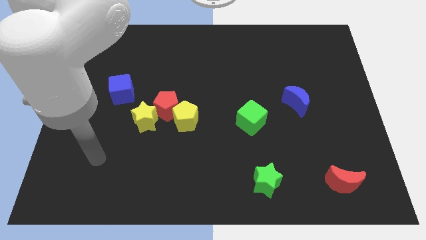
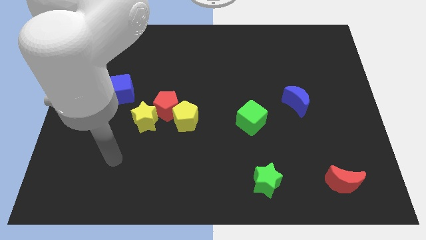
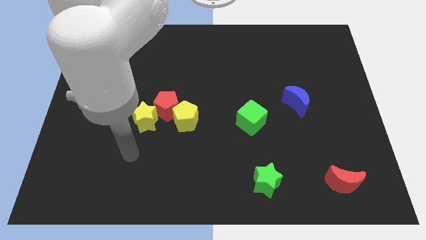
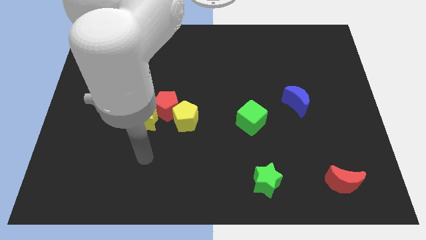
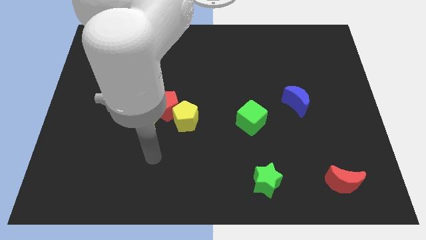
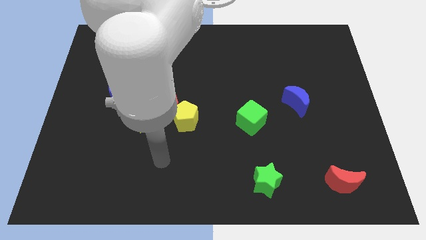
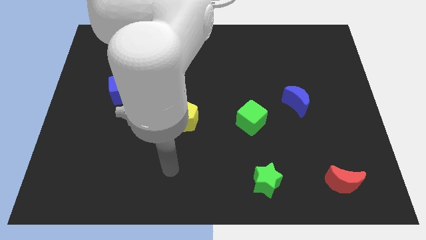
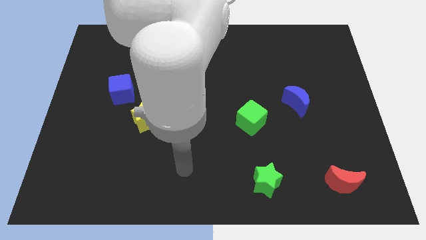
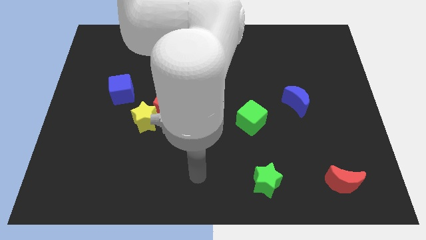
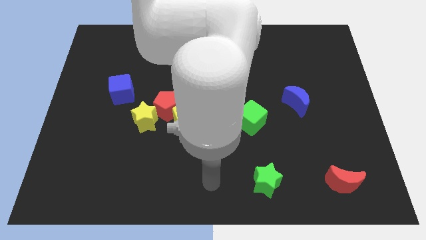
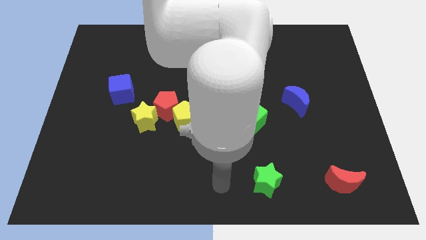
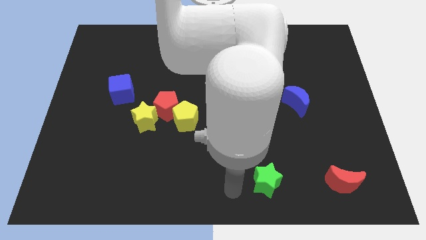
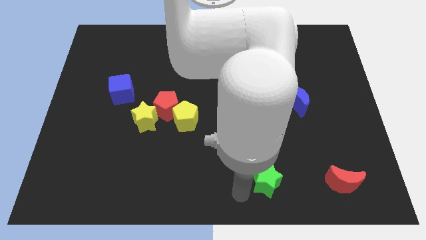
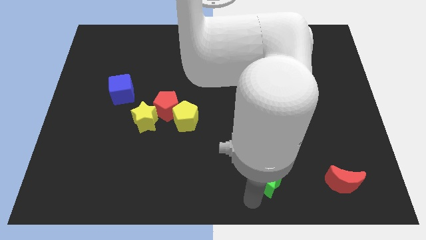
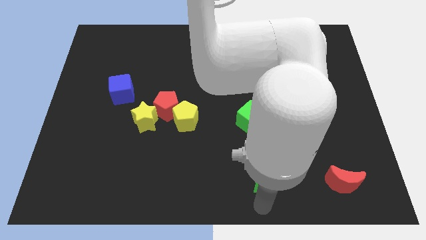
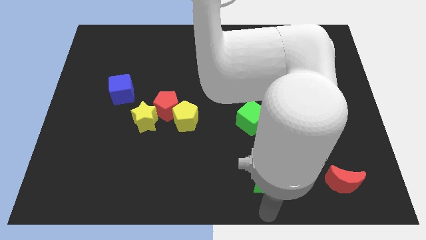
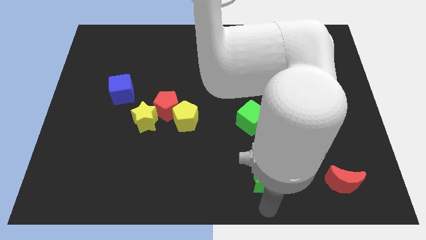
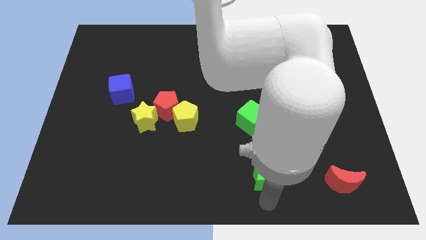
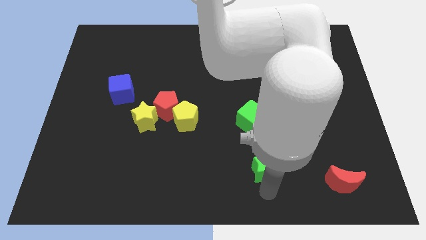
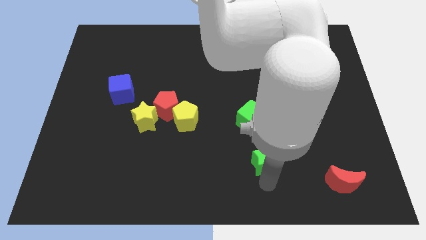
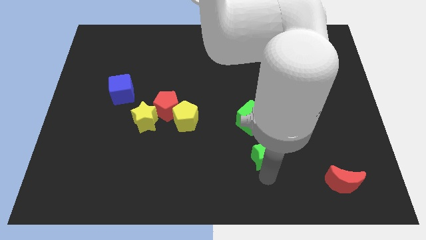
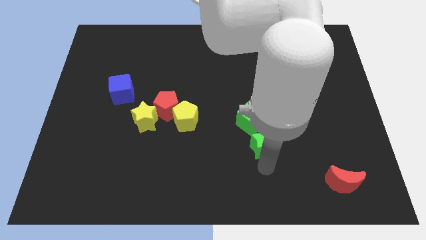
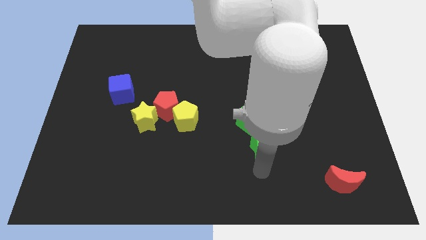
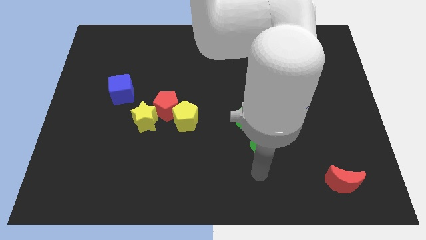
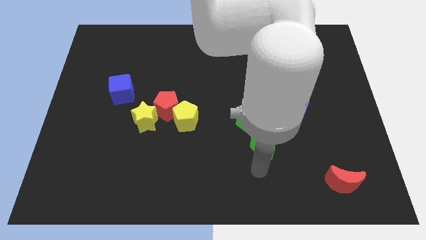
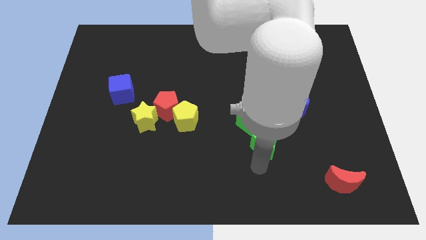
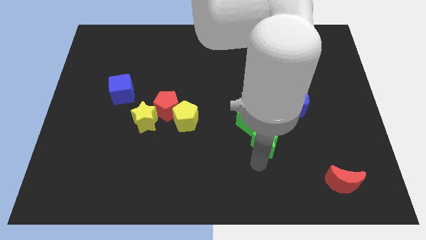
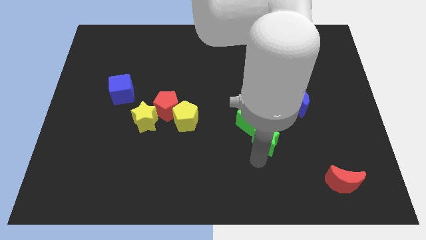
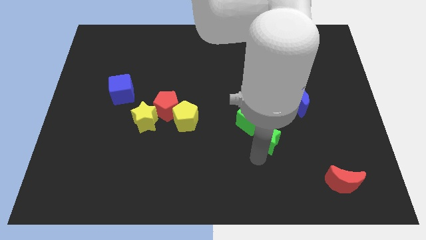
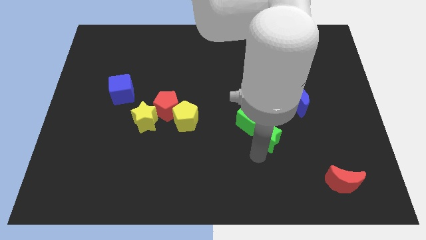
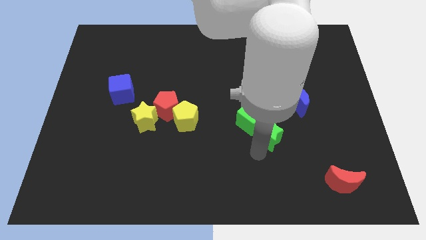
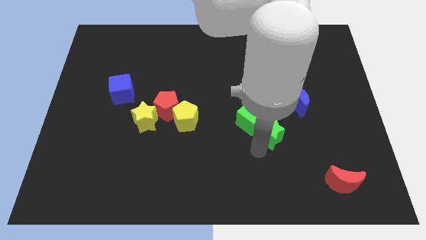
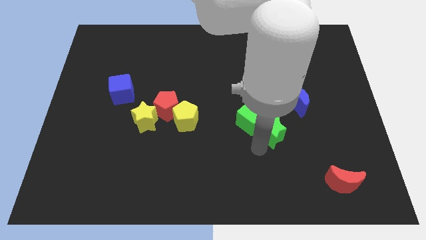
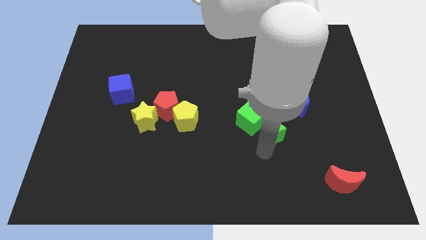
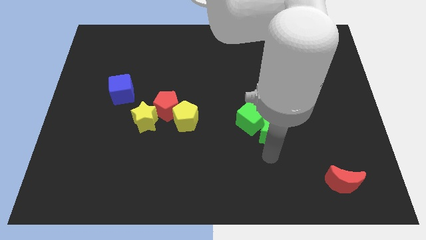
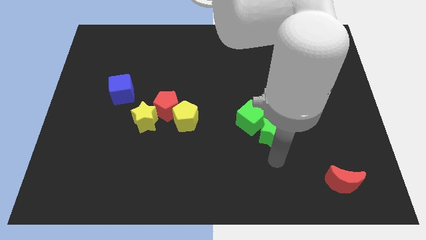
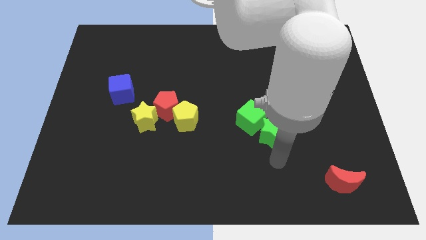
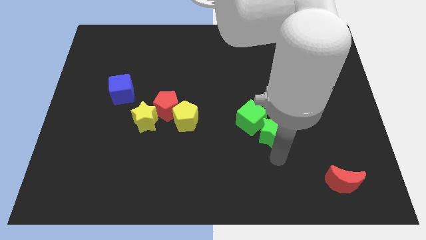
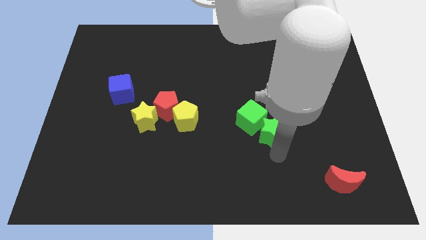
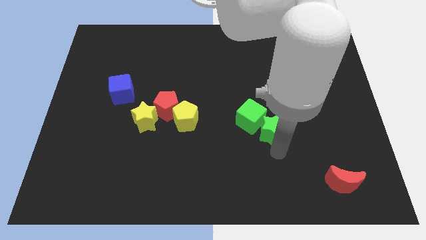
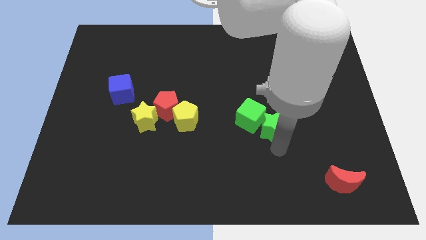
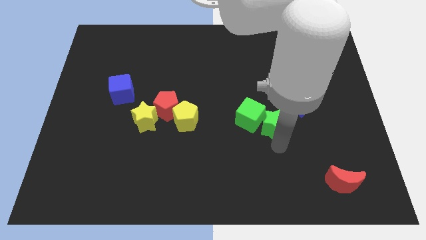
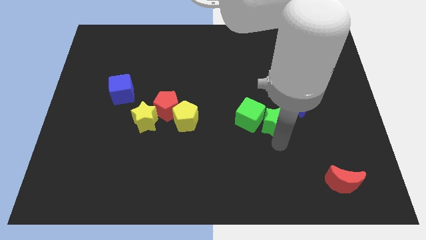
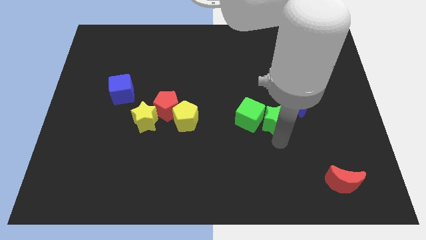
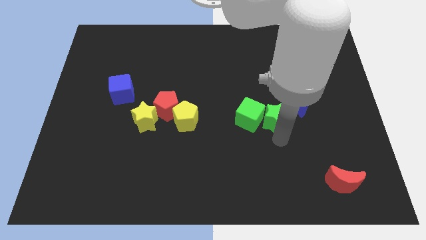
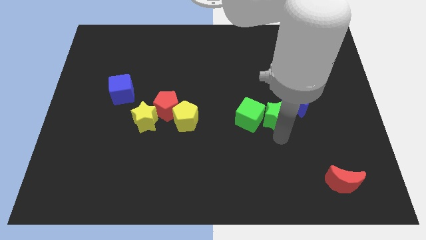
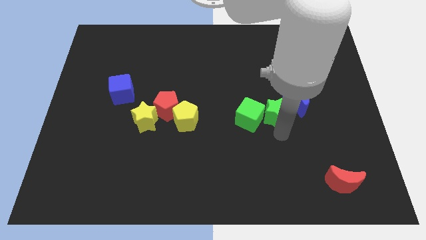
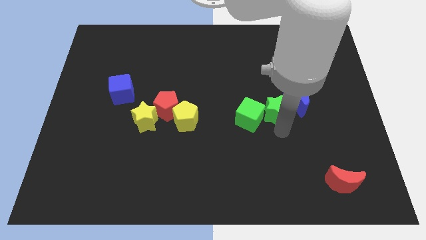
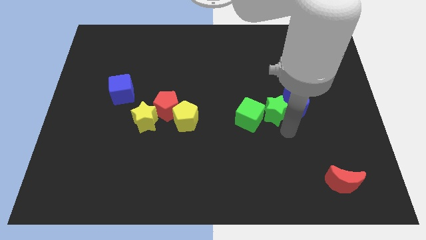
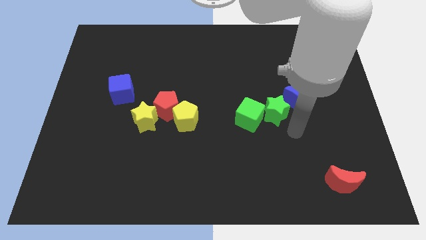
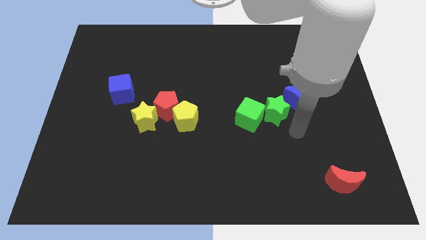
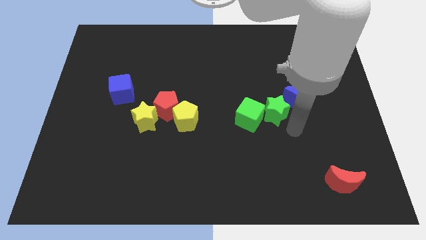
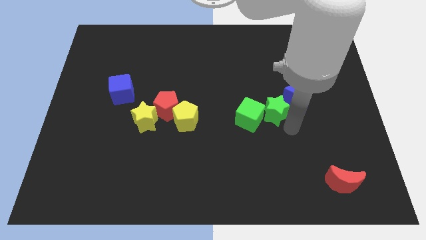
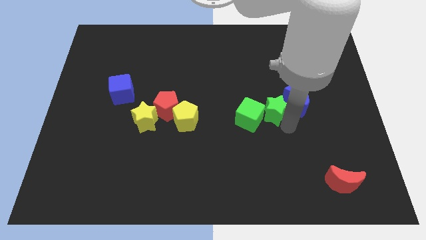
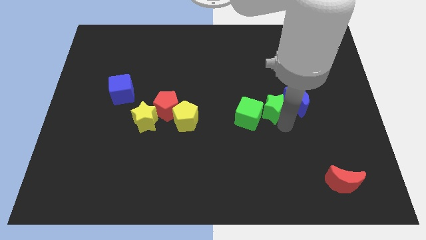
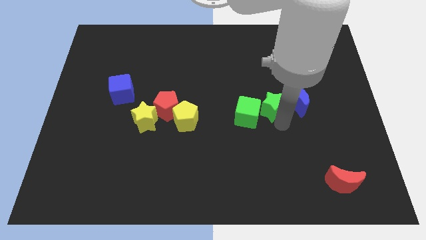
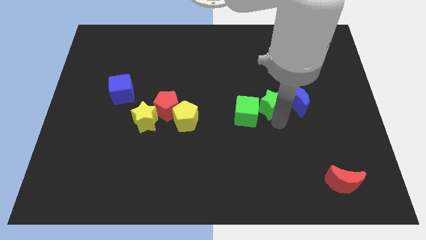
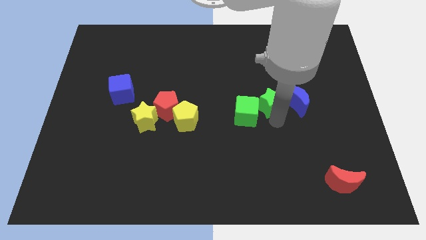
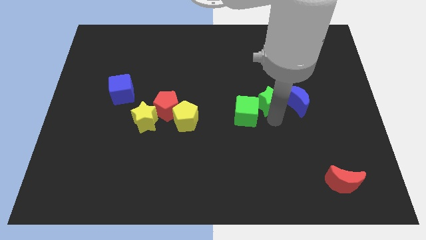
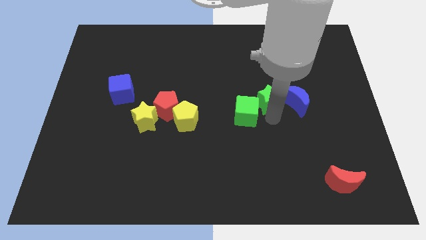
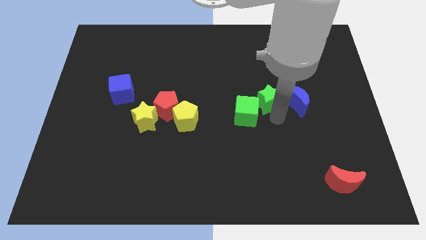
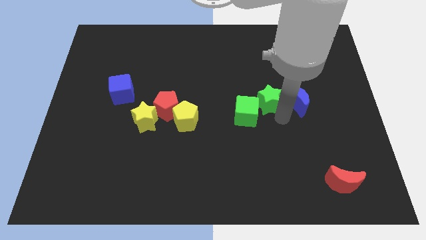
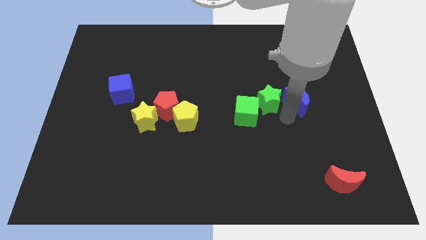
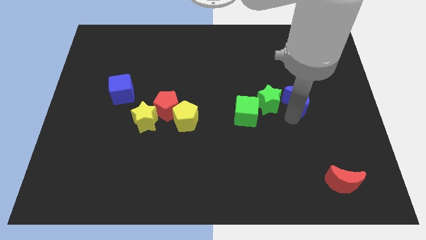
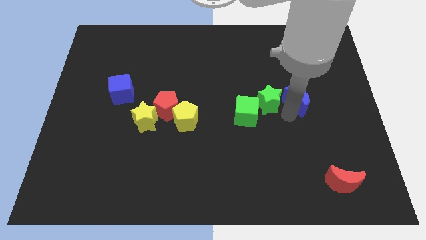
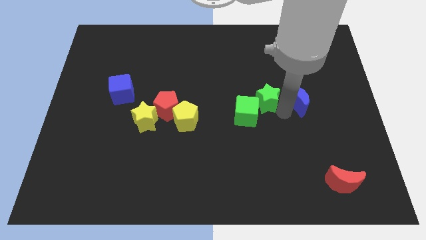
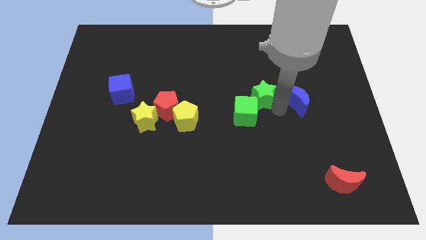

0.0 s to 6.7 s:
slide the green star above the green cube

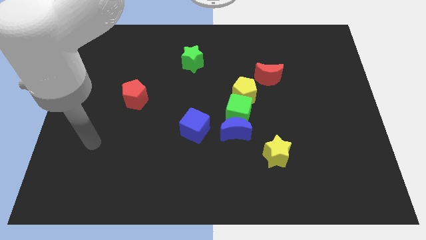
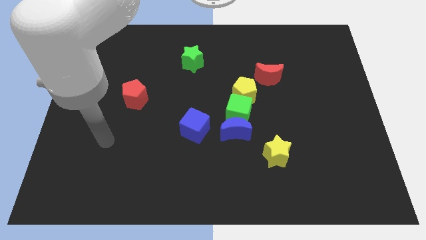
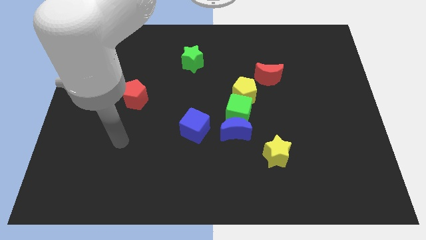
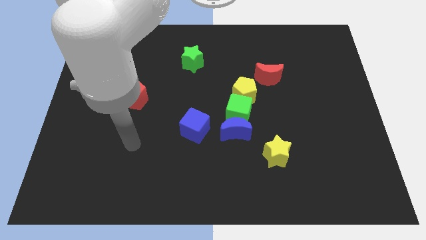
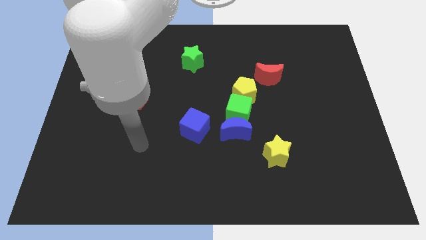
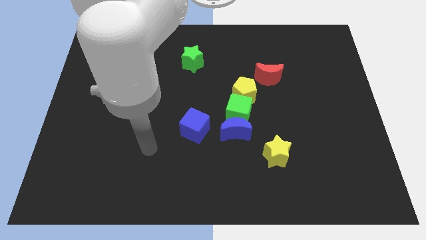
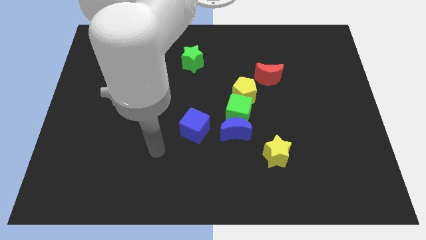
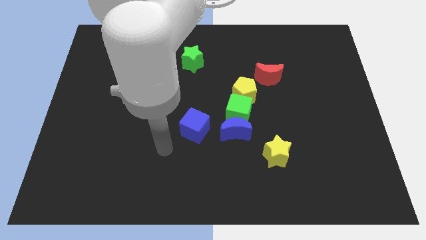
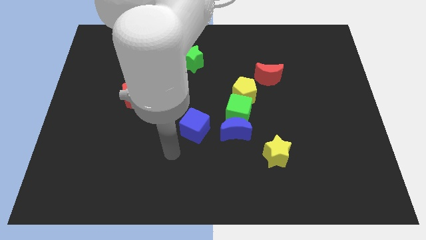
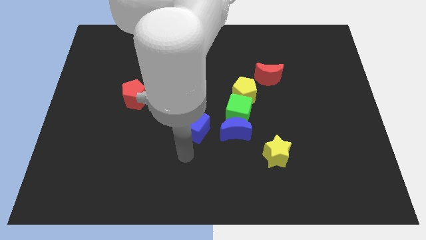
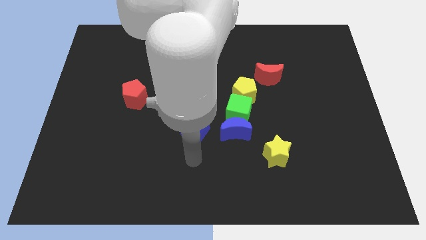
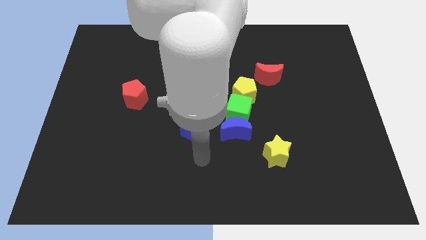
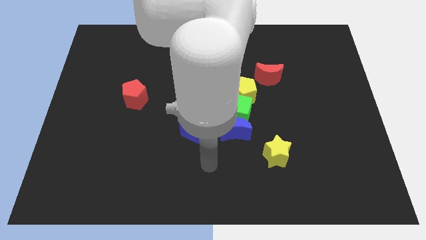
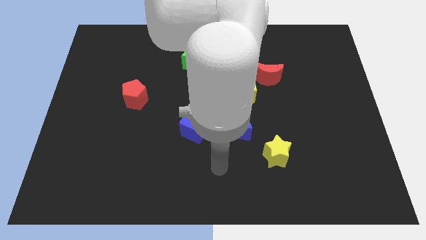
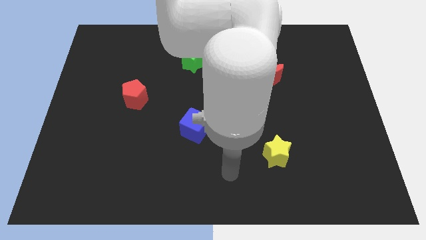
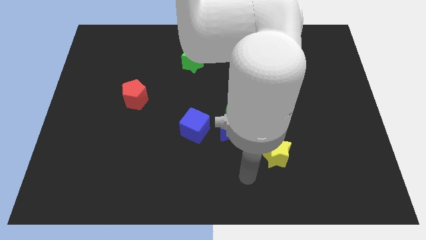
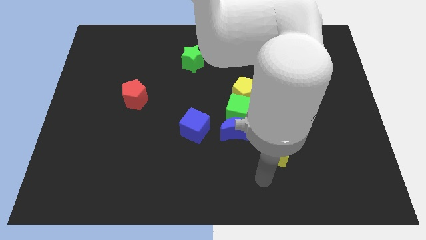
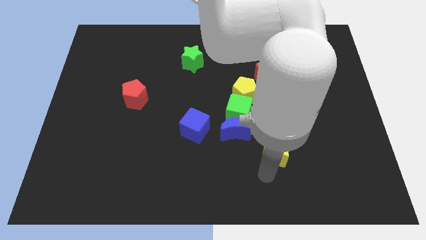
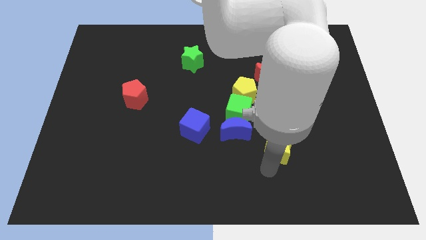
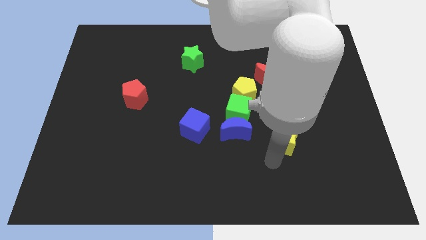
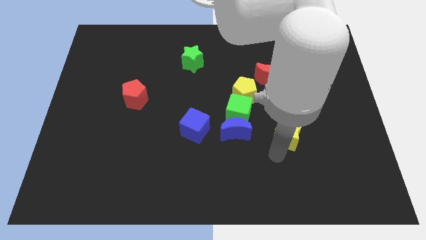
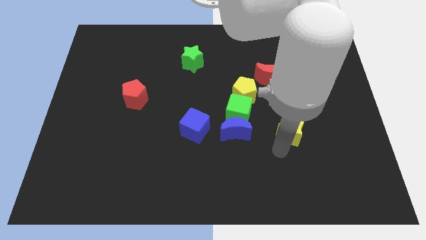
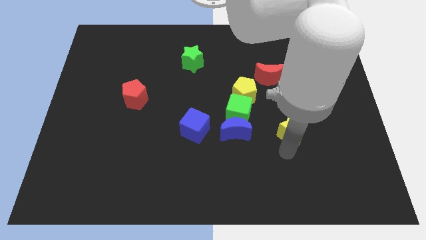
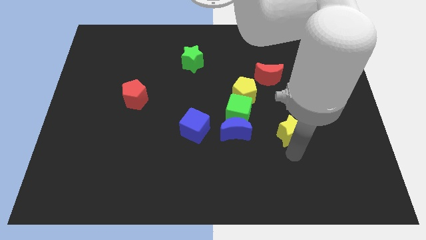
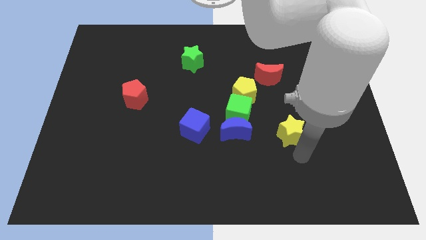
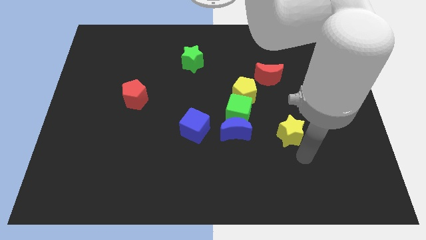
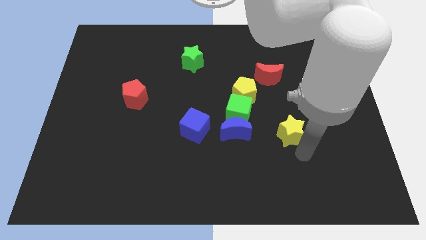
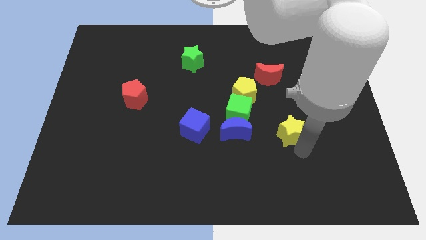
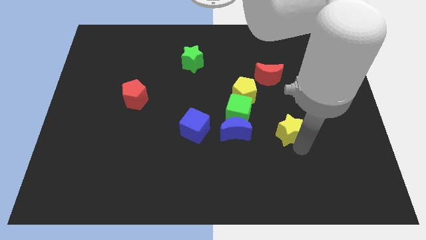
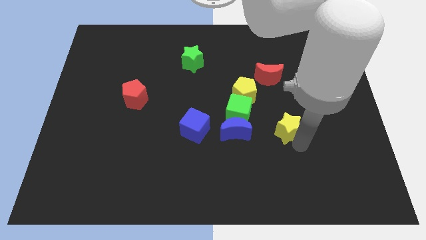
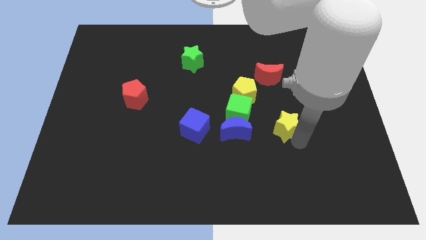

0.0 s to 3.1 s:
push the yellow star to the bottom of the red moon
